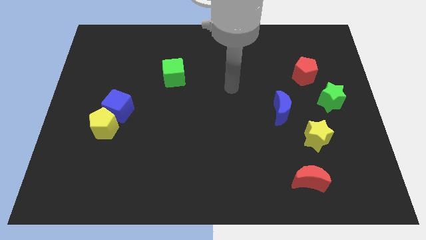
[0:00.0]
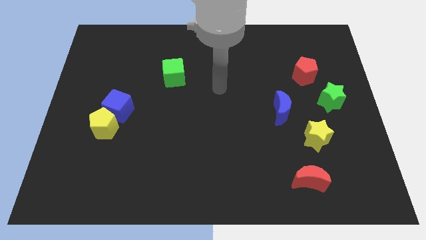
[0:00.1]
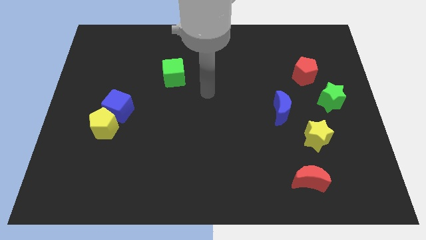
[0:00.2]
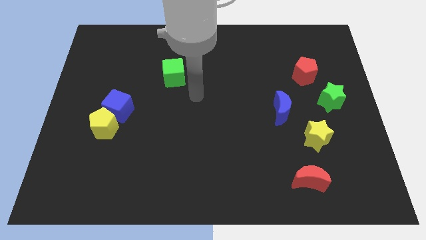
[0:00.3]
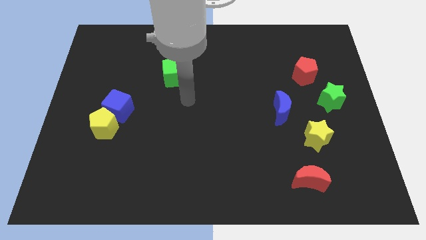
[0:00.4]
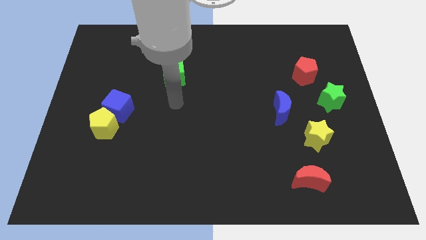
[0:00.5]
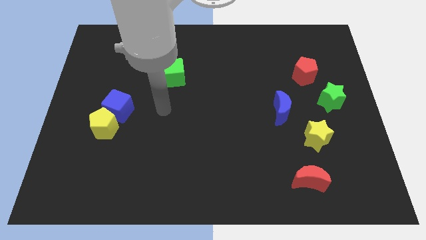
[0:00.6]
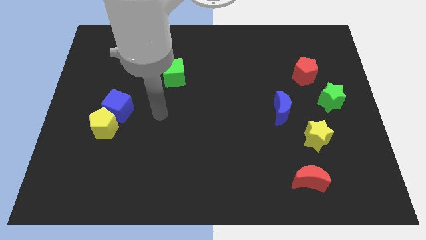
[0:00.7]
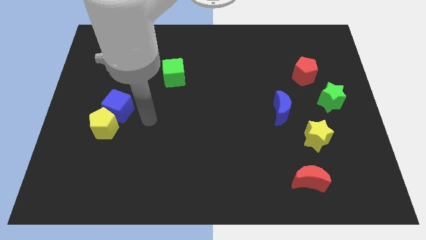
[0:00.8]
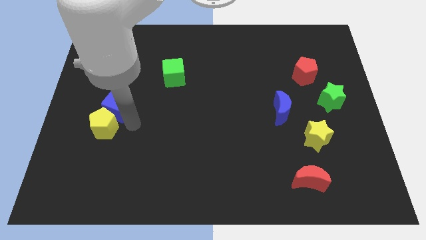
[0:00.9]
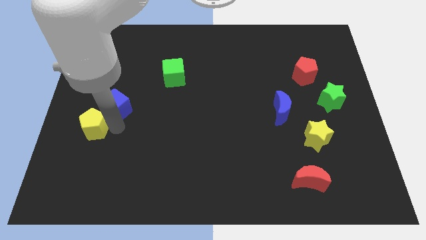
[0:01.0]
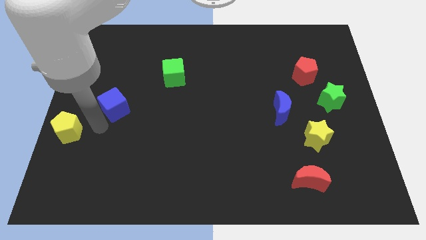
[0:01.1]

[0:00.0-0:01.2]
pull the blue cube apart from the yellow pentagon

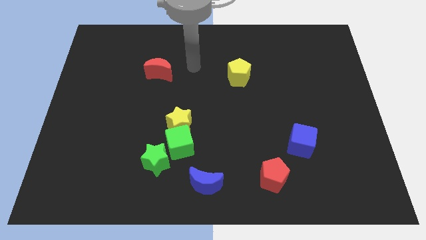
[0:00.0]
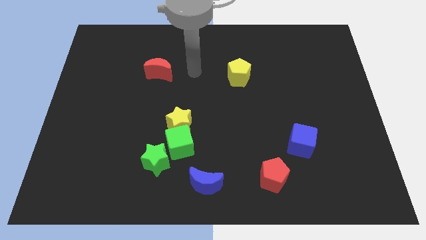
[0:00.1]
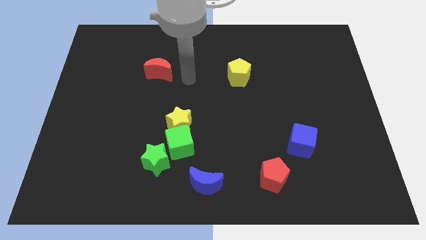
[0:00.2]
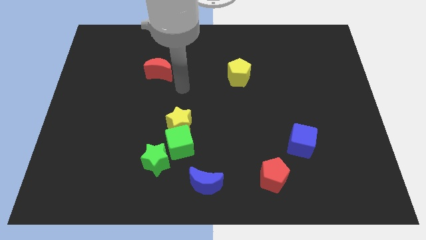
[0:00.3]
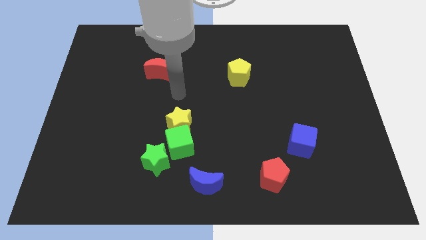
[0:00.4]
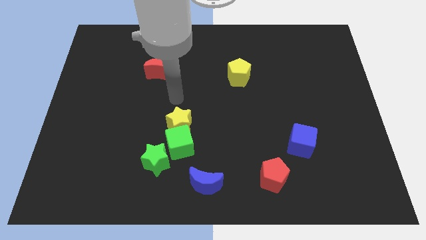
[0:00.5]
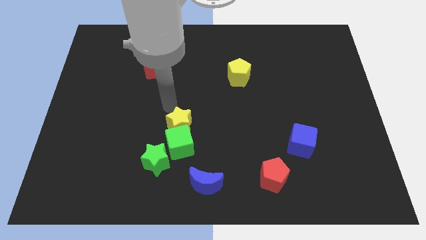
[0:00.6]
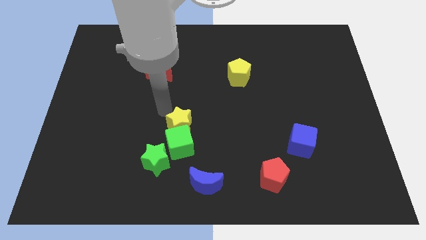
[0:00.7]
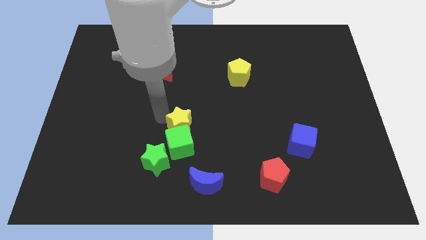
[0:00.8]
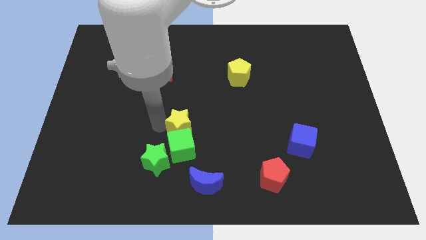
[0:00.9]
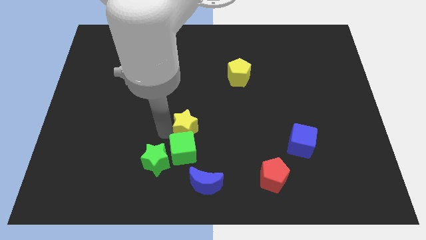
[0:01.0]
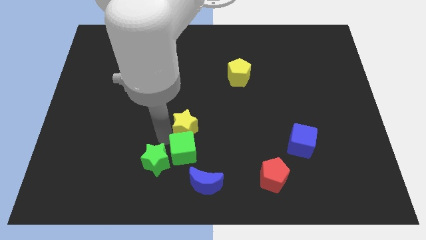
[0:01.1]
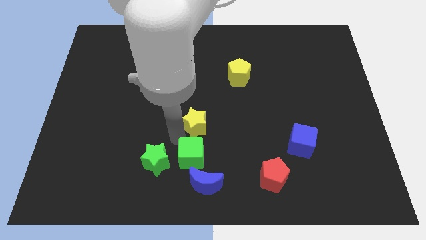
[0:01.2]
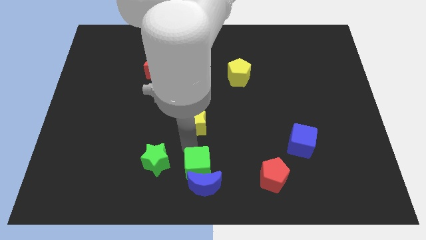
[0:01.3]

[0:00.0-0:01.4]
pull the yellow star apart from the green cube

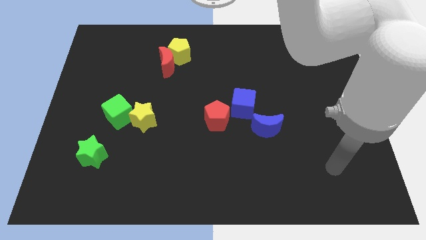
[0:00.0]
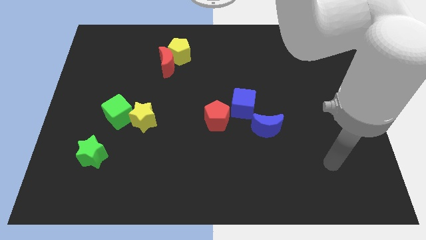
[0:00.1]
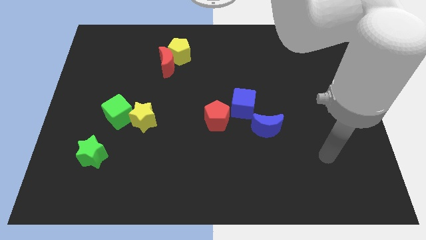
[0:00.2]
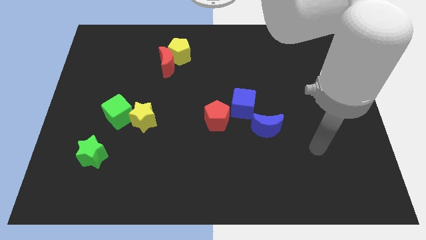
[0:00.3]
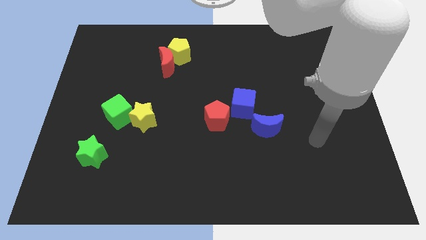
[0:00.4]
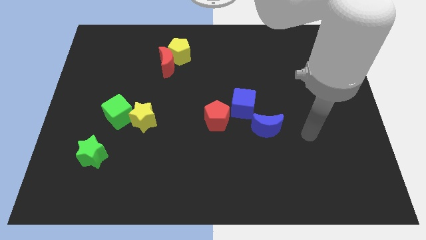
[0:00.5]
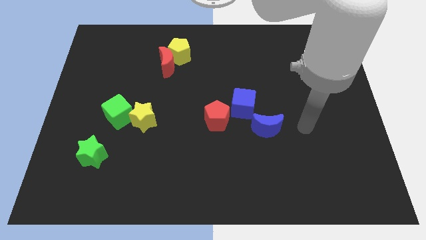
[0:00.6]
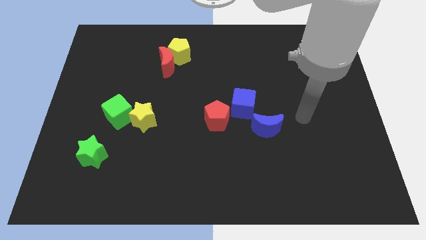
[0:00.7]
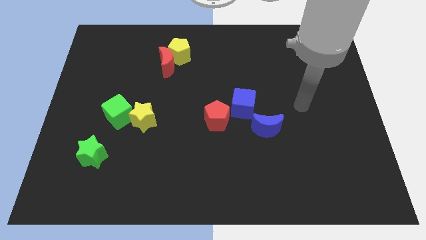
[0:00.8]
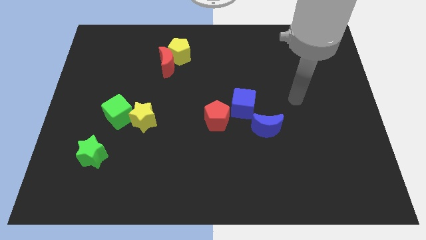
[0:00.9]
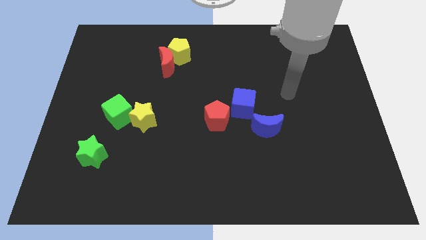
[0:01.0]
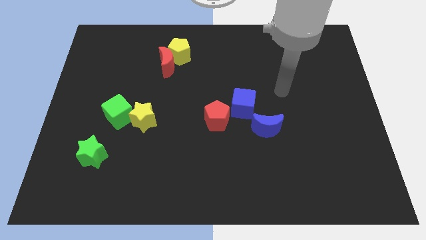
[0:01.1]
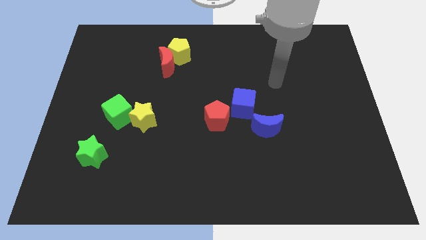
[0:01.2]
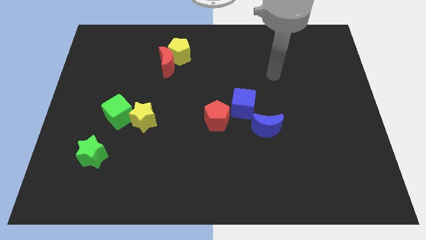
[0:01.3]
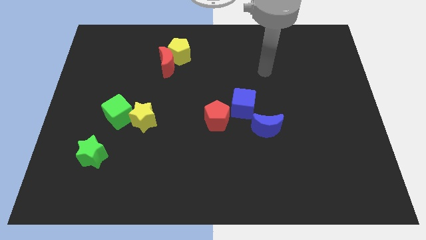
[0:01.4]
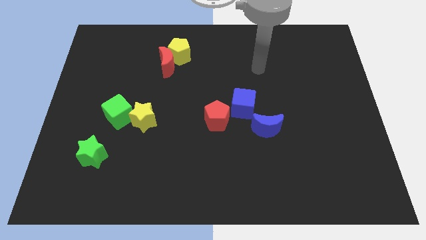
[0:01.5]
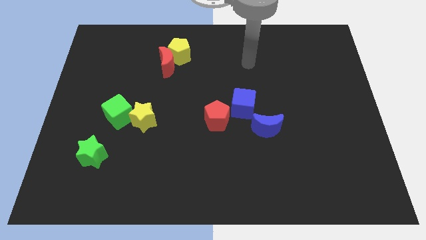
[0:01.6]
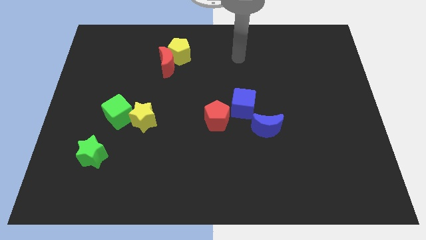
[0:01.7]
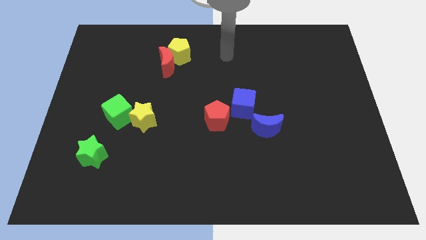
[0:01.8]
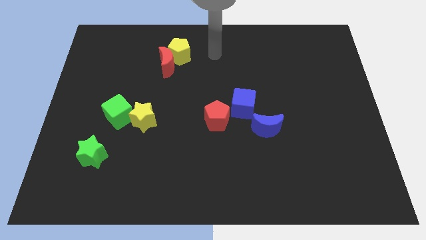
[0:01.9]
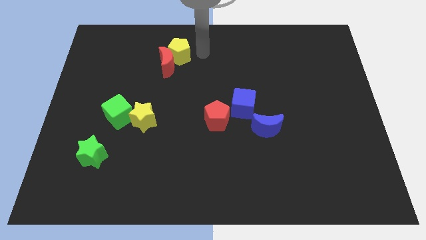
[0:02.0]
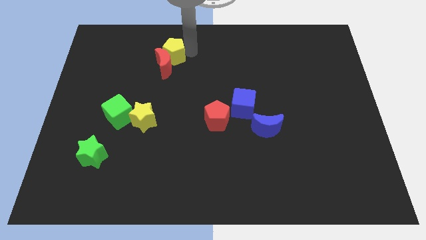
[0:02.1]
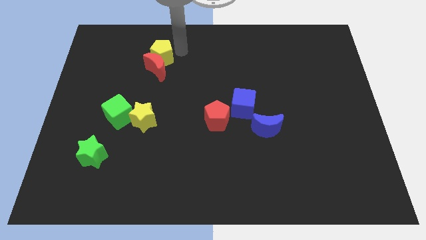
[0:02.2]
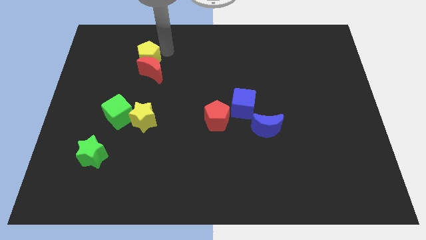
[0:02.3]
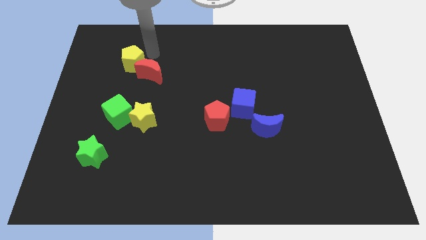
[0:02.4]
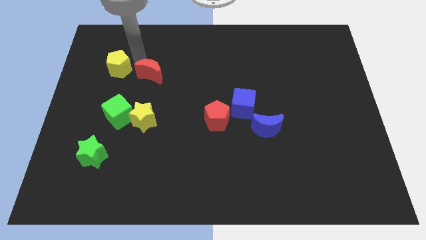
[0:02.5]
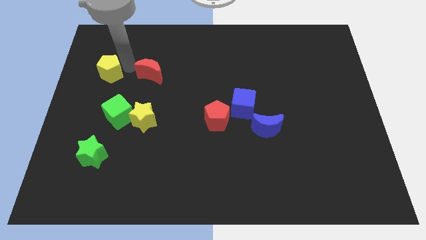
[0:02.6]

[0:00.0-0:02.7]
pull the red moon apart from the yellow pentagon

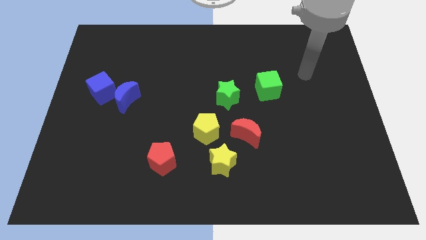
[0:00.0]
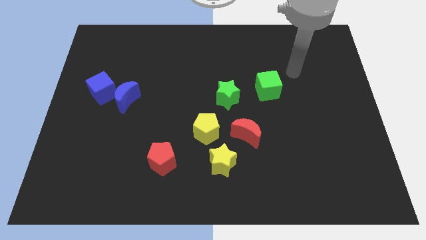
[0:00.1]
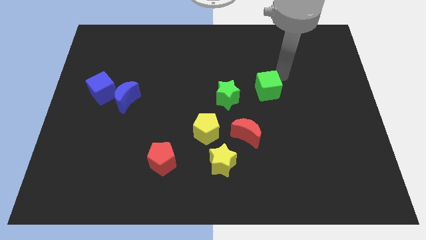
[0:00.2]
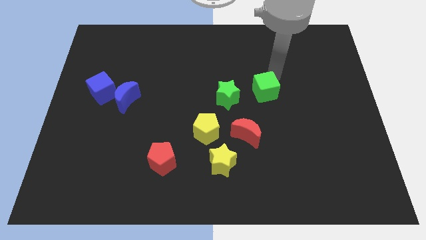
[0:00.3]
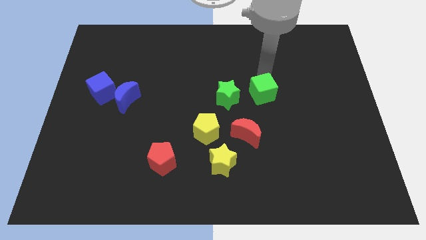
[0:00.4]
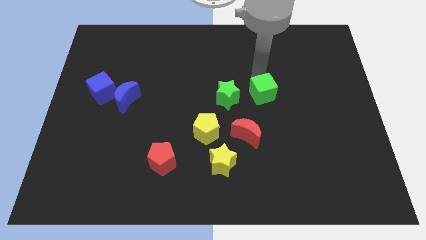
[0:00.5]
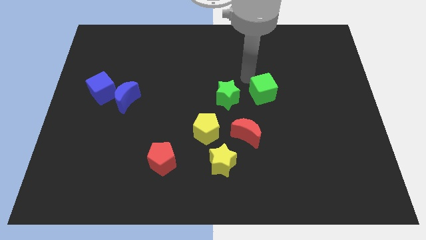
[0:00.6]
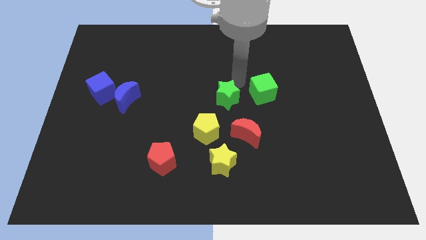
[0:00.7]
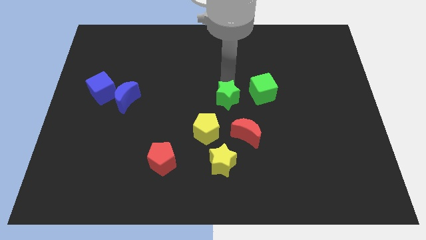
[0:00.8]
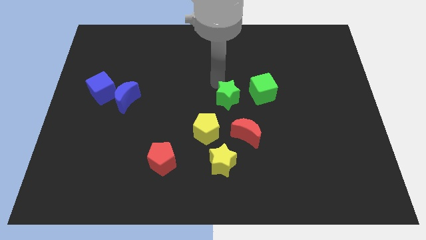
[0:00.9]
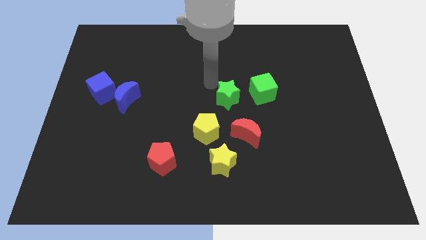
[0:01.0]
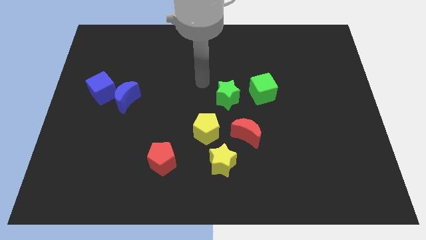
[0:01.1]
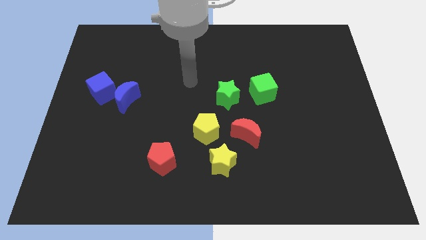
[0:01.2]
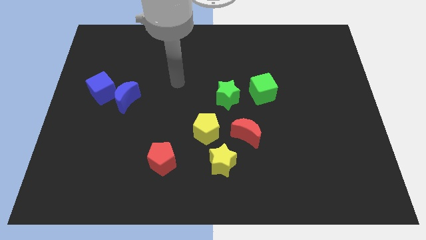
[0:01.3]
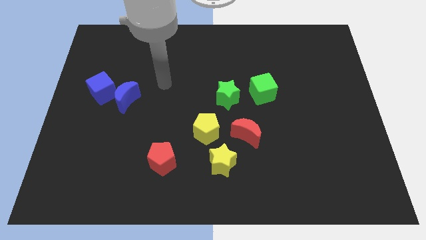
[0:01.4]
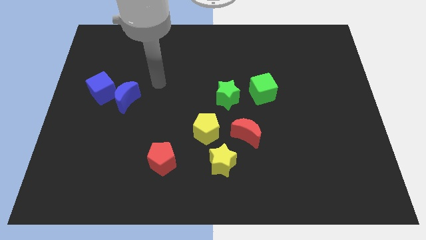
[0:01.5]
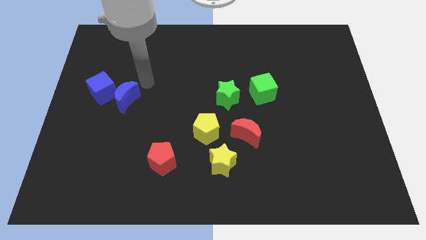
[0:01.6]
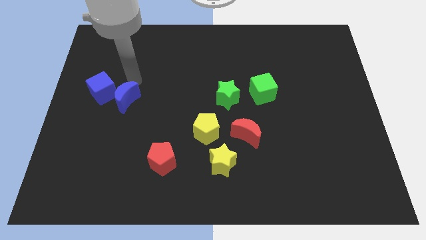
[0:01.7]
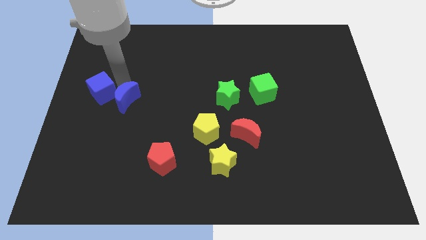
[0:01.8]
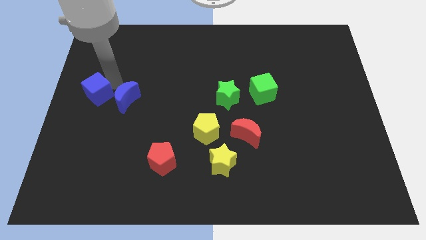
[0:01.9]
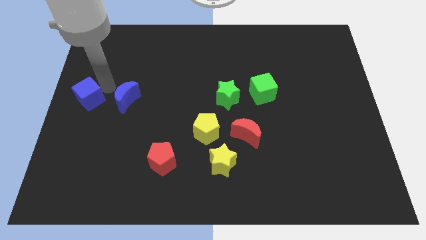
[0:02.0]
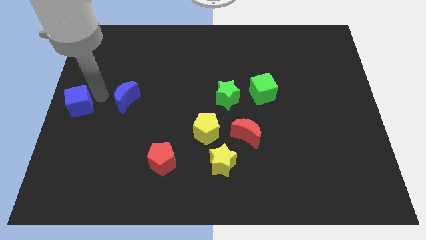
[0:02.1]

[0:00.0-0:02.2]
pull the blue moon apart from the blue cube

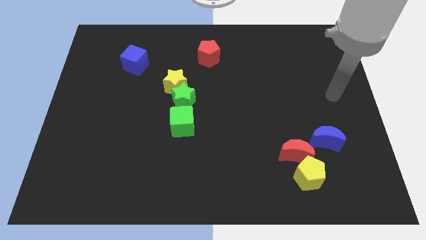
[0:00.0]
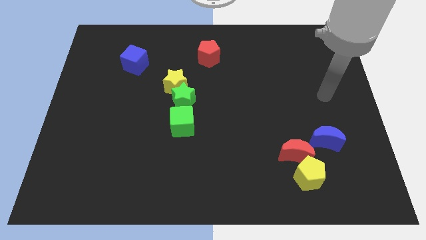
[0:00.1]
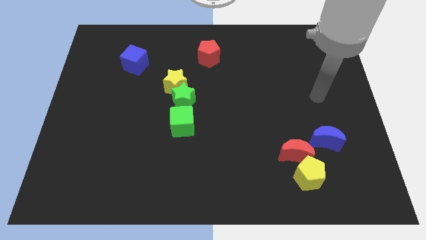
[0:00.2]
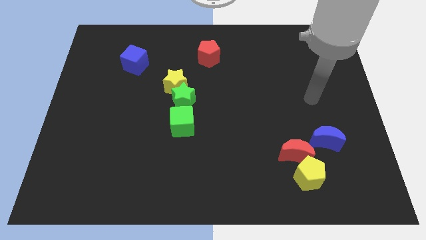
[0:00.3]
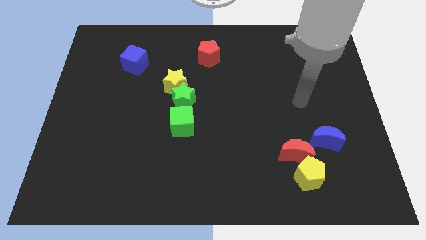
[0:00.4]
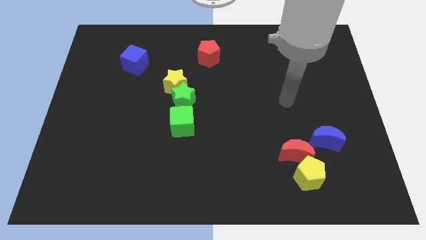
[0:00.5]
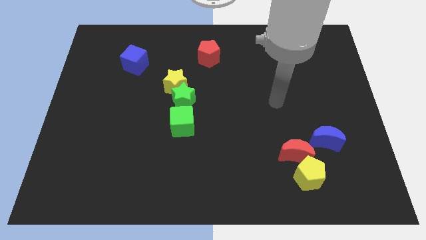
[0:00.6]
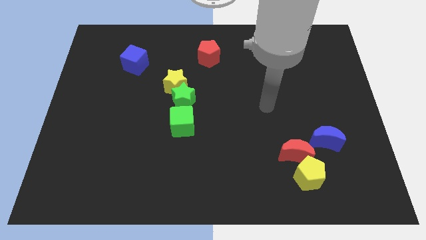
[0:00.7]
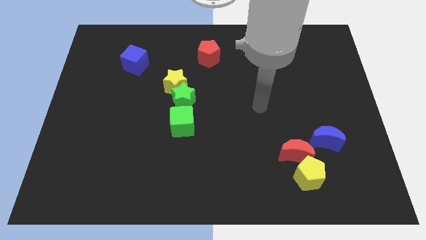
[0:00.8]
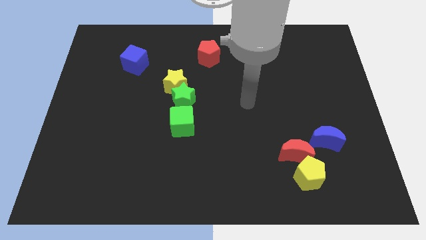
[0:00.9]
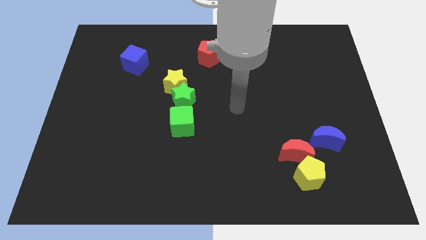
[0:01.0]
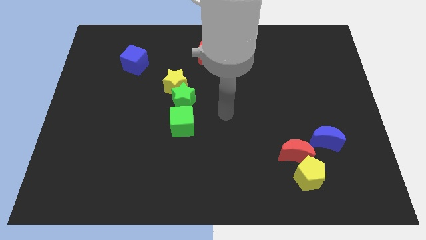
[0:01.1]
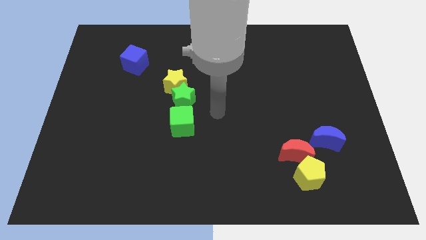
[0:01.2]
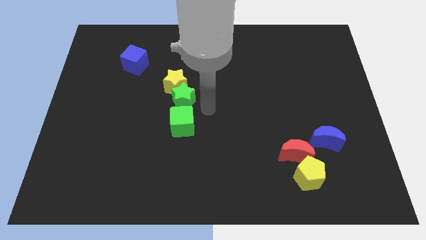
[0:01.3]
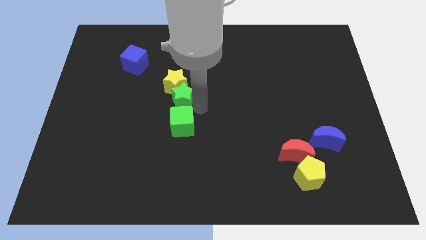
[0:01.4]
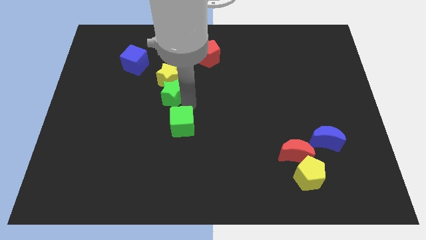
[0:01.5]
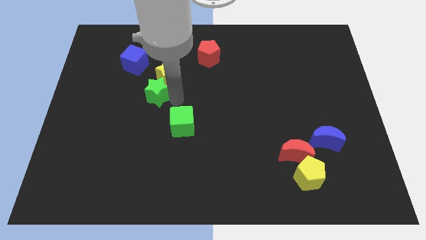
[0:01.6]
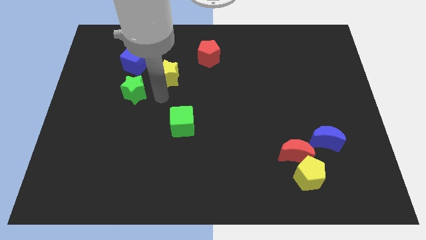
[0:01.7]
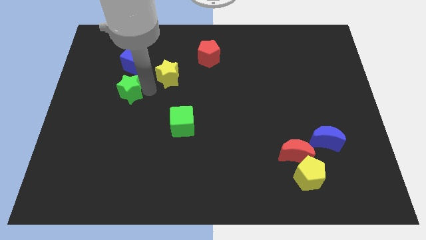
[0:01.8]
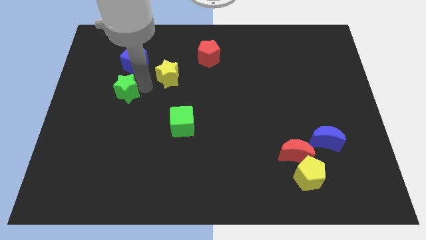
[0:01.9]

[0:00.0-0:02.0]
move the yellow star away from the green star
